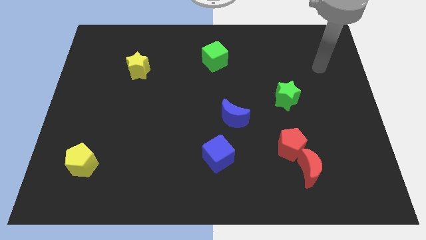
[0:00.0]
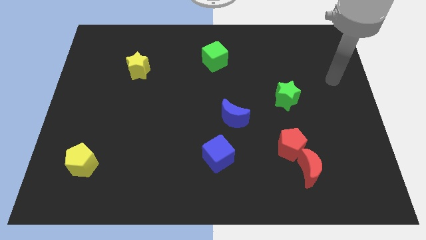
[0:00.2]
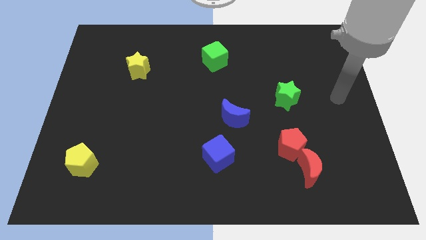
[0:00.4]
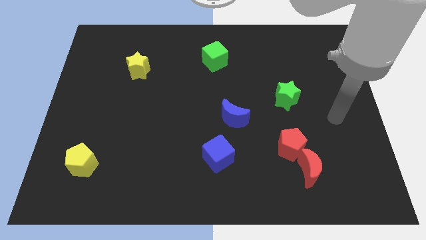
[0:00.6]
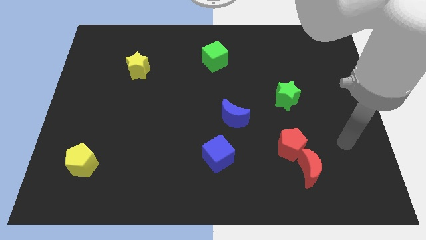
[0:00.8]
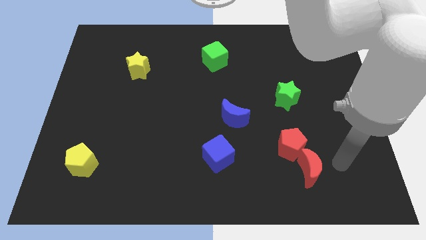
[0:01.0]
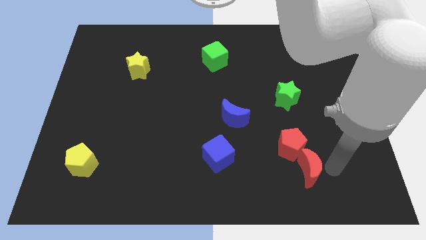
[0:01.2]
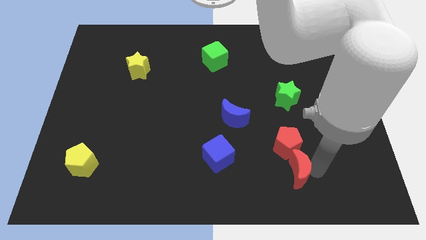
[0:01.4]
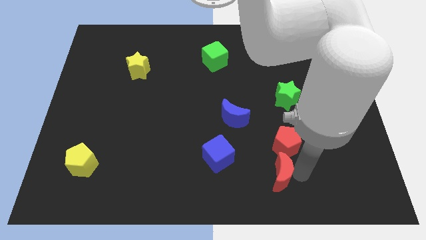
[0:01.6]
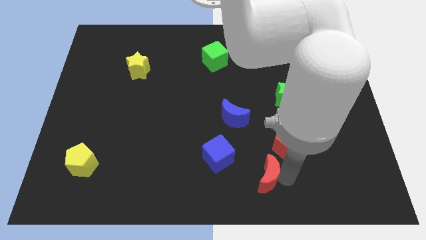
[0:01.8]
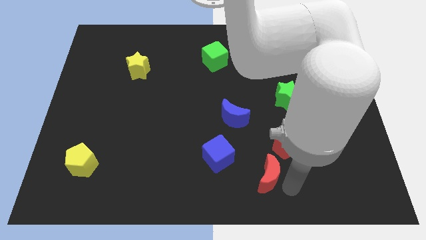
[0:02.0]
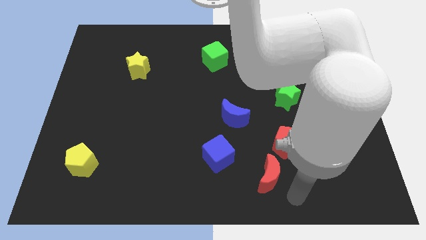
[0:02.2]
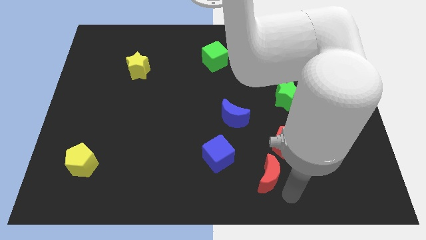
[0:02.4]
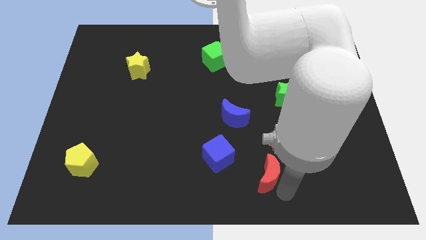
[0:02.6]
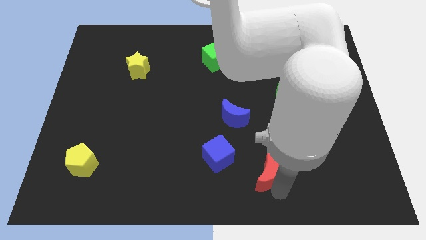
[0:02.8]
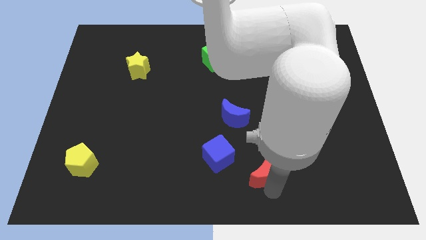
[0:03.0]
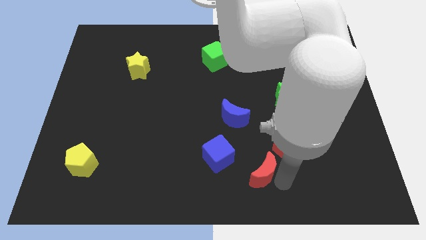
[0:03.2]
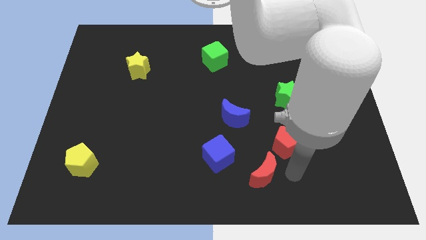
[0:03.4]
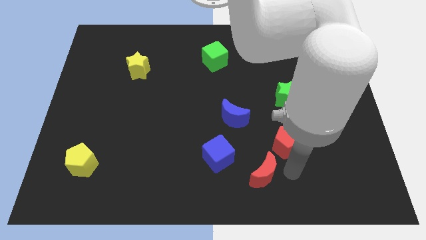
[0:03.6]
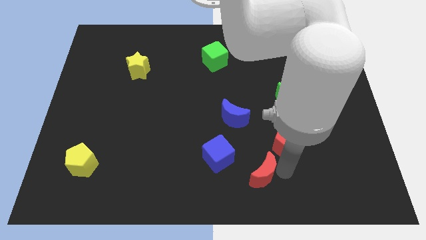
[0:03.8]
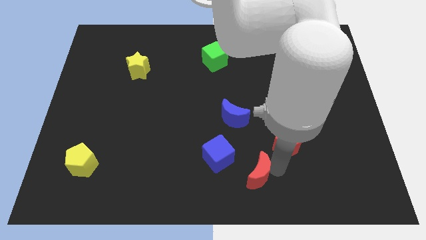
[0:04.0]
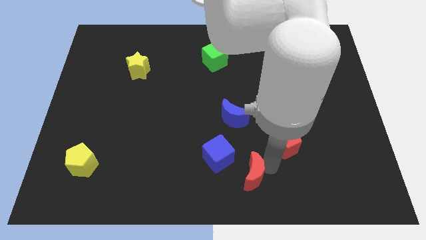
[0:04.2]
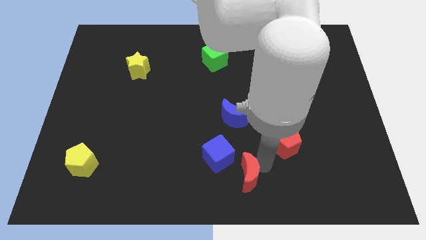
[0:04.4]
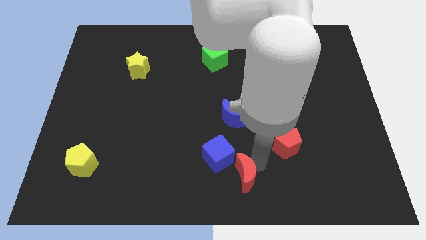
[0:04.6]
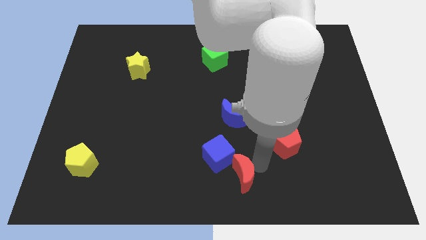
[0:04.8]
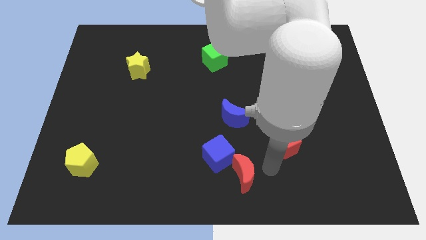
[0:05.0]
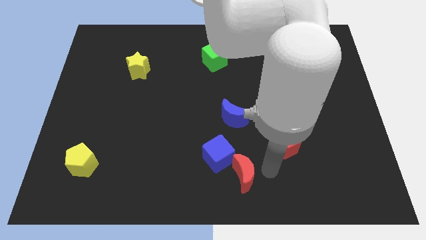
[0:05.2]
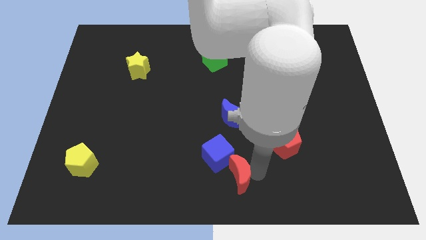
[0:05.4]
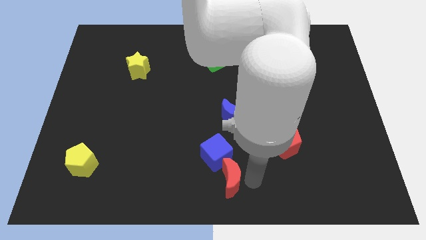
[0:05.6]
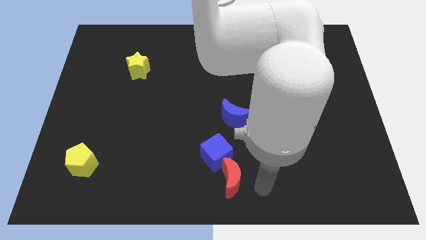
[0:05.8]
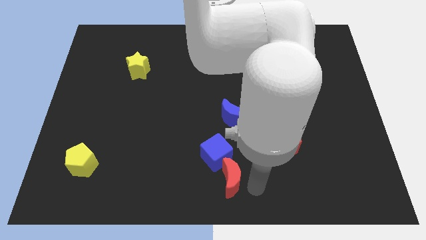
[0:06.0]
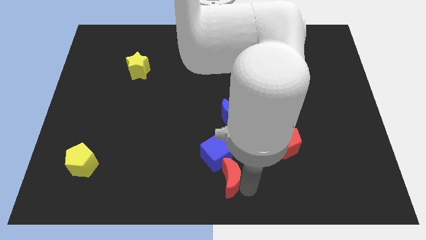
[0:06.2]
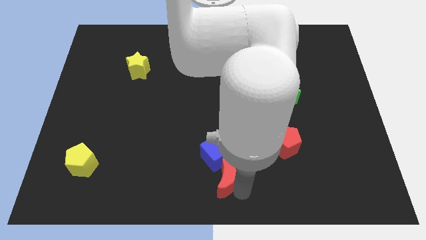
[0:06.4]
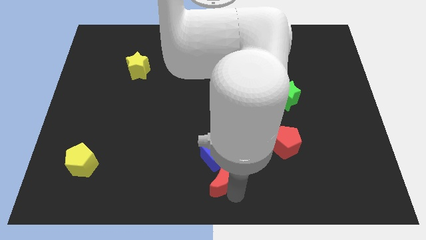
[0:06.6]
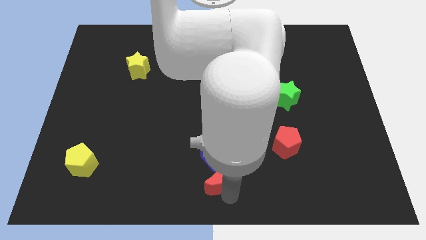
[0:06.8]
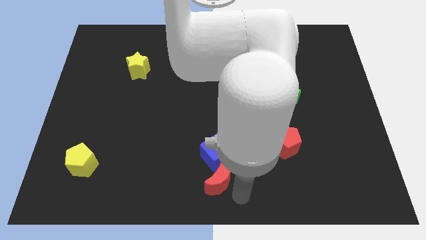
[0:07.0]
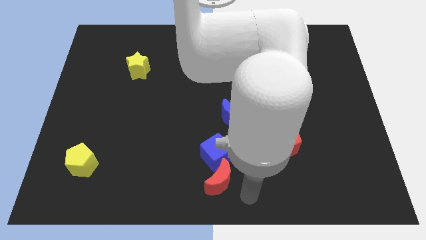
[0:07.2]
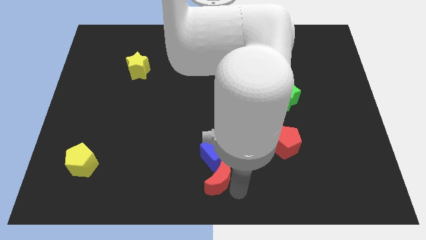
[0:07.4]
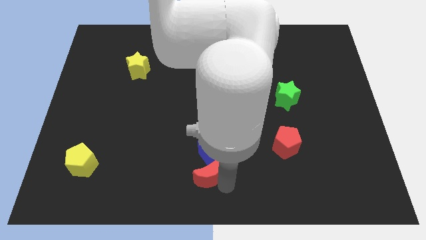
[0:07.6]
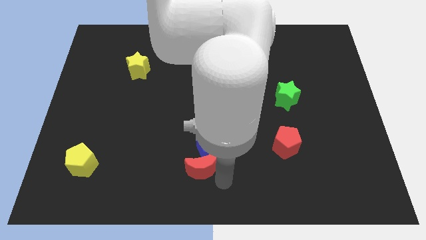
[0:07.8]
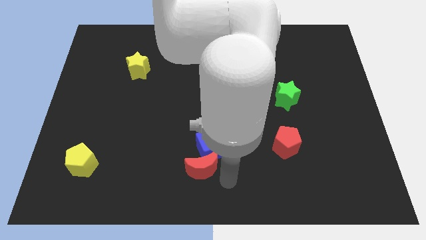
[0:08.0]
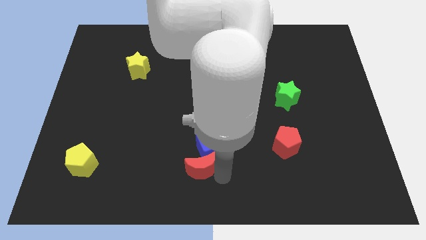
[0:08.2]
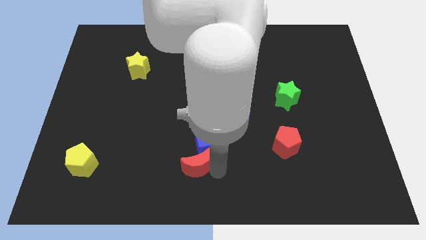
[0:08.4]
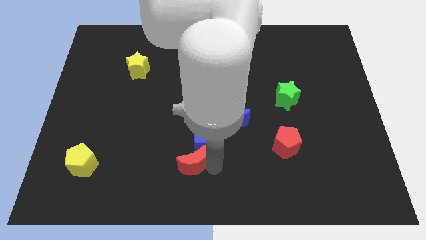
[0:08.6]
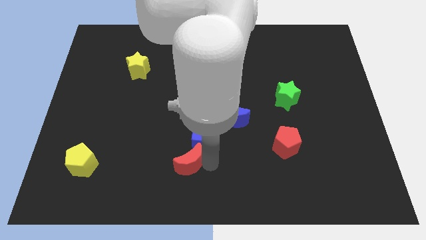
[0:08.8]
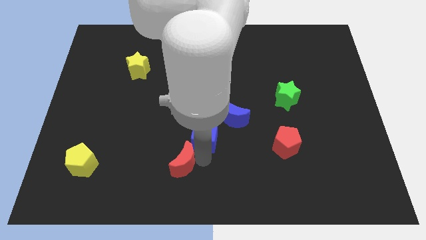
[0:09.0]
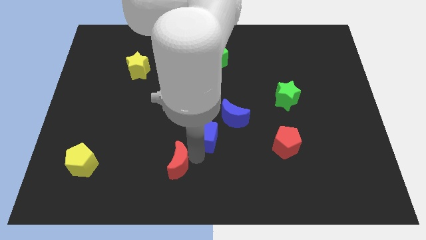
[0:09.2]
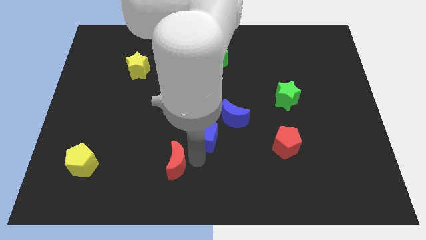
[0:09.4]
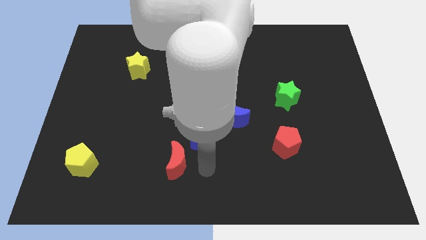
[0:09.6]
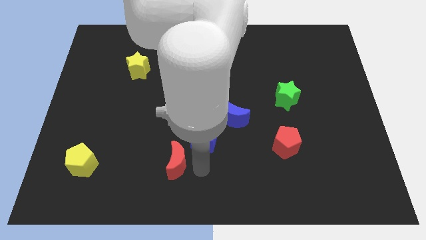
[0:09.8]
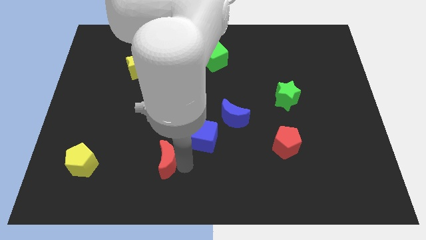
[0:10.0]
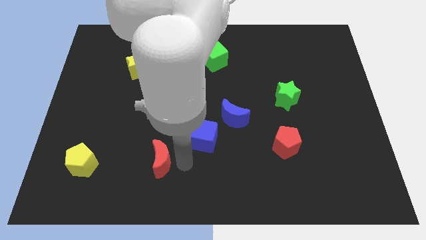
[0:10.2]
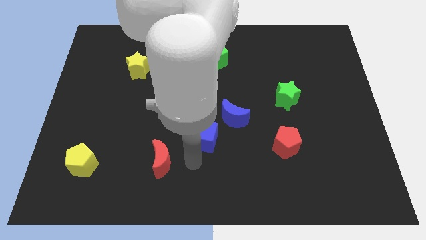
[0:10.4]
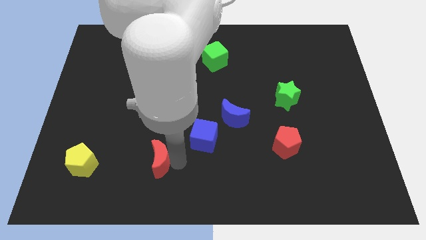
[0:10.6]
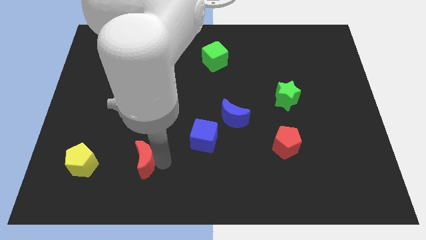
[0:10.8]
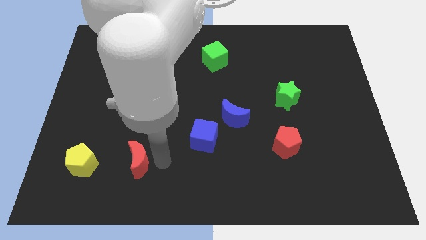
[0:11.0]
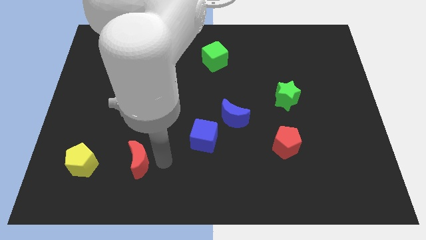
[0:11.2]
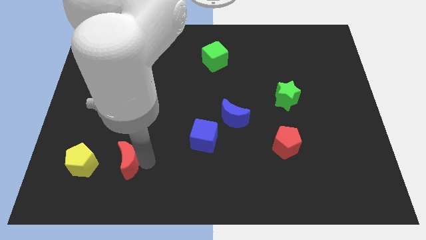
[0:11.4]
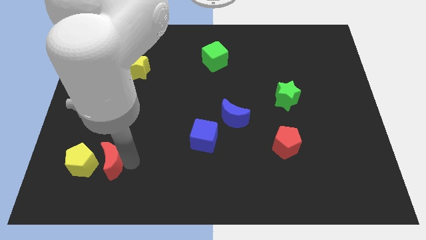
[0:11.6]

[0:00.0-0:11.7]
put the red moon close to the yellow pentagon

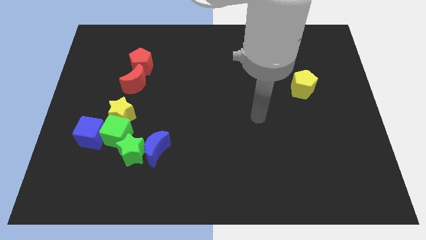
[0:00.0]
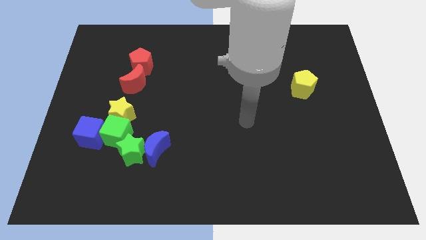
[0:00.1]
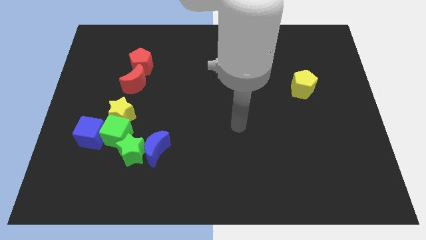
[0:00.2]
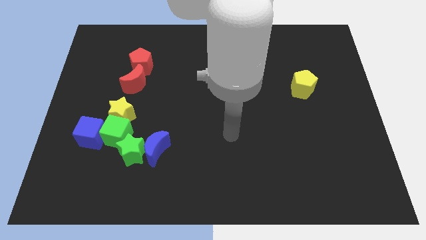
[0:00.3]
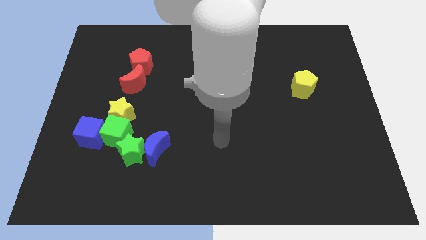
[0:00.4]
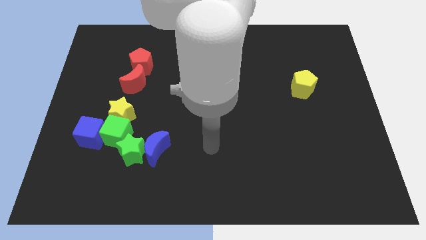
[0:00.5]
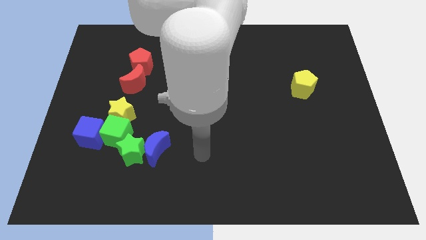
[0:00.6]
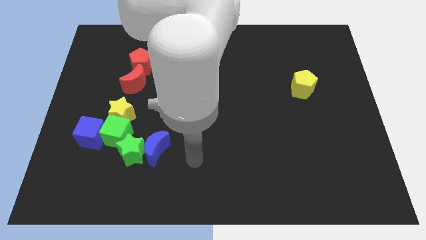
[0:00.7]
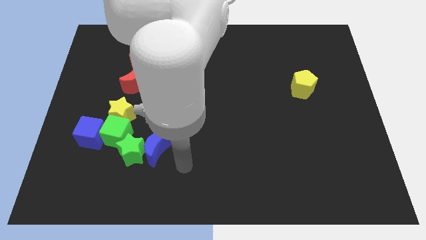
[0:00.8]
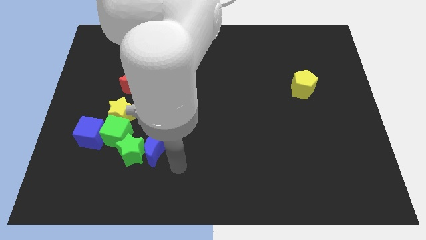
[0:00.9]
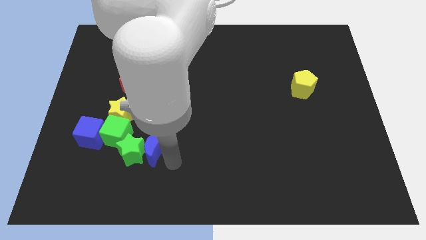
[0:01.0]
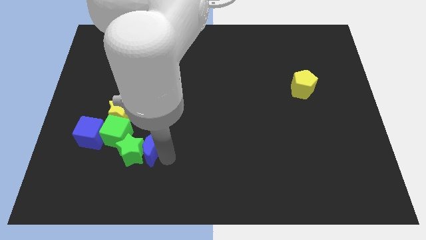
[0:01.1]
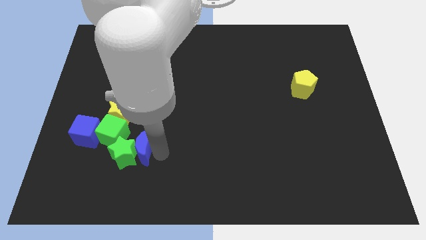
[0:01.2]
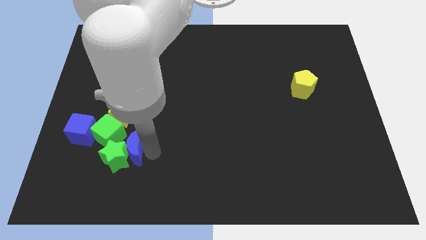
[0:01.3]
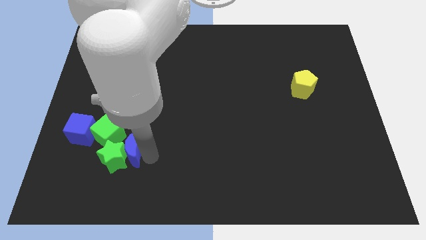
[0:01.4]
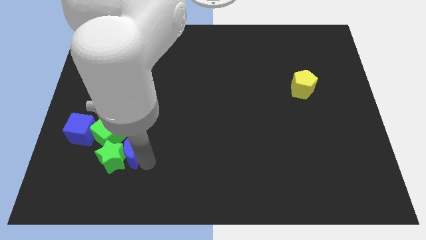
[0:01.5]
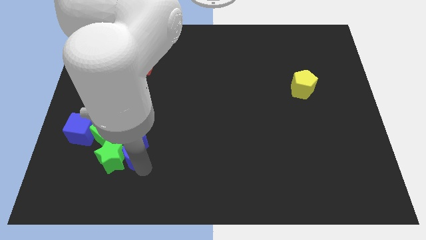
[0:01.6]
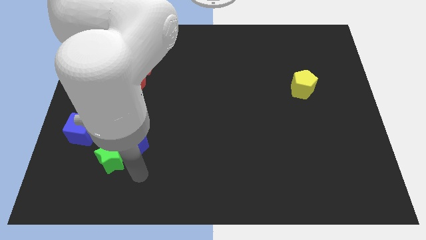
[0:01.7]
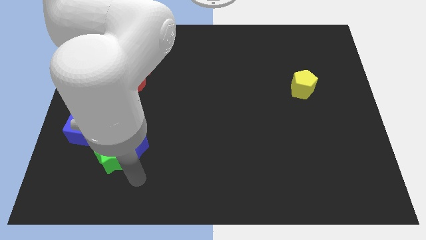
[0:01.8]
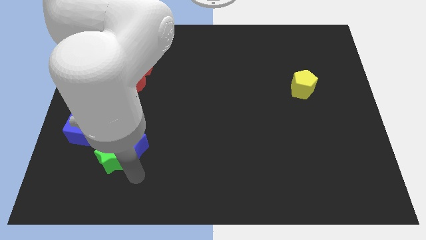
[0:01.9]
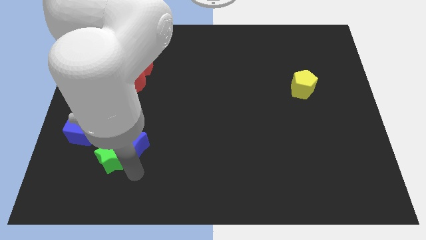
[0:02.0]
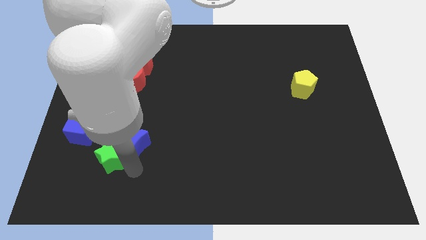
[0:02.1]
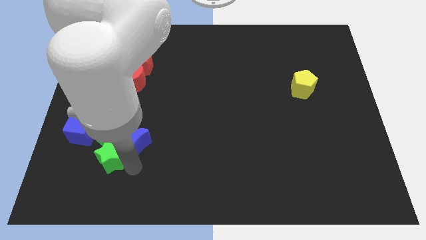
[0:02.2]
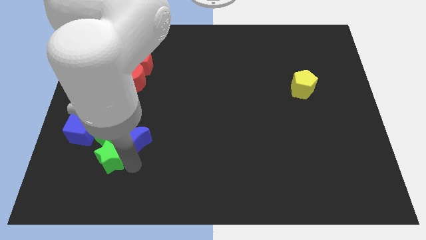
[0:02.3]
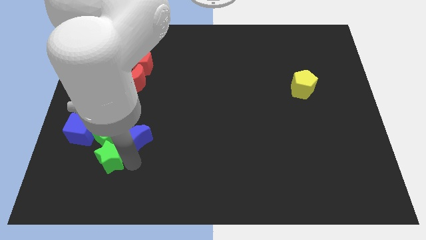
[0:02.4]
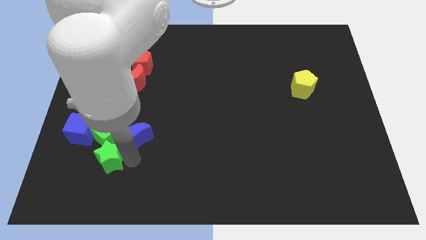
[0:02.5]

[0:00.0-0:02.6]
slide the blue moon close to the green cube
